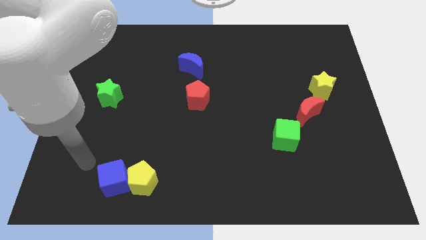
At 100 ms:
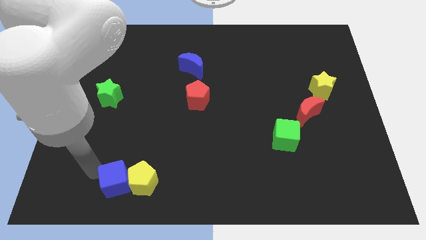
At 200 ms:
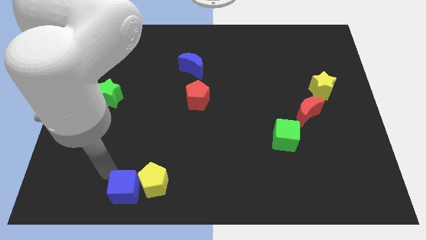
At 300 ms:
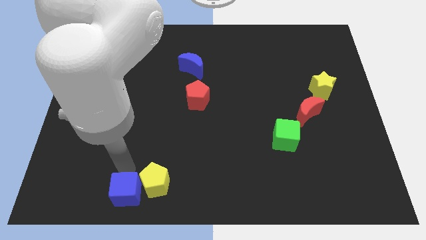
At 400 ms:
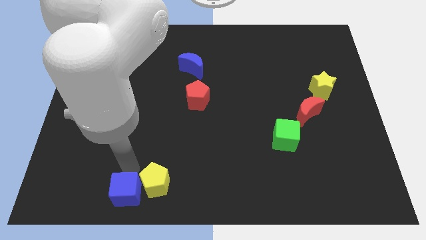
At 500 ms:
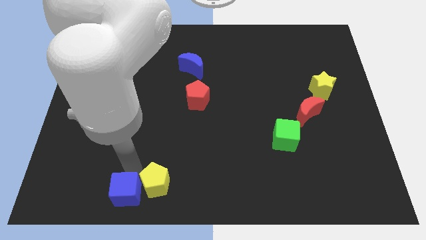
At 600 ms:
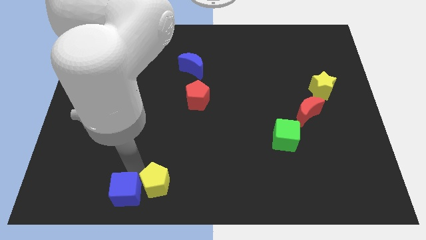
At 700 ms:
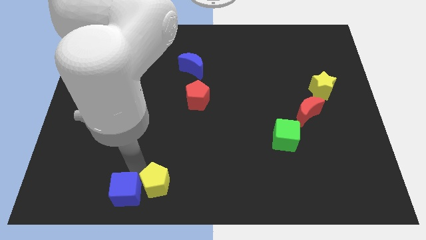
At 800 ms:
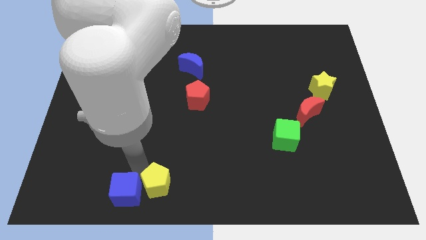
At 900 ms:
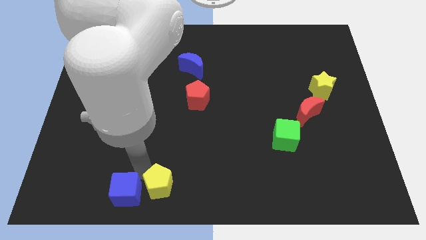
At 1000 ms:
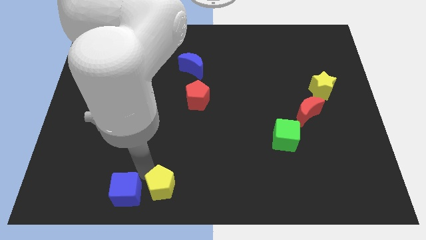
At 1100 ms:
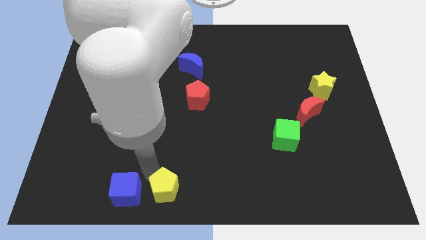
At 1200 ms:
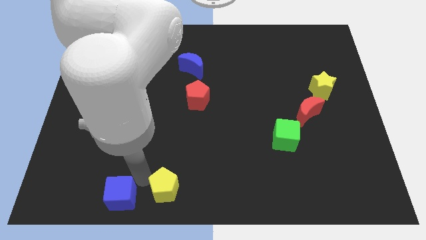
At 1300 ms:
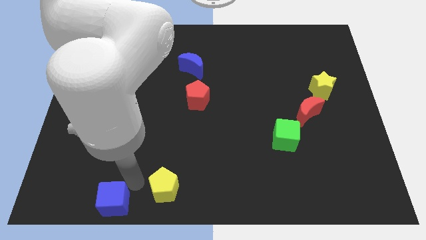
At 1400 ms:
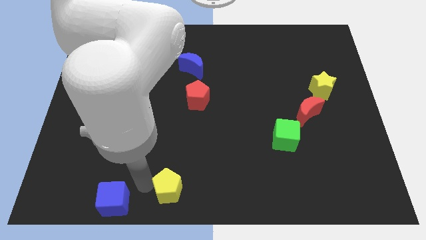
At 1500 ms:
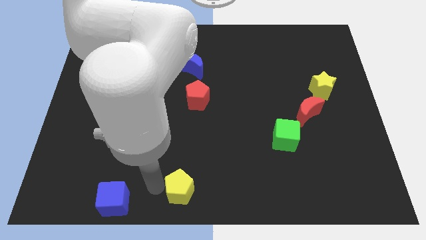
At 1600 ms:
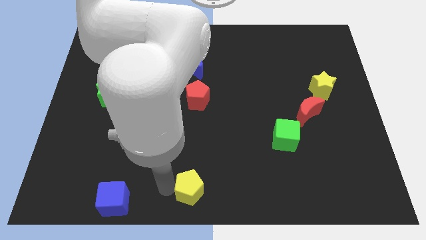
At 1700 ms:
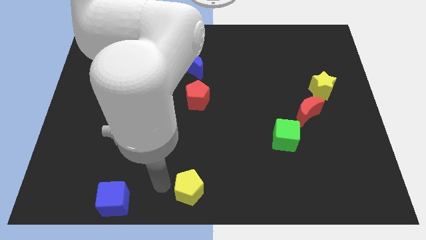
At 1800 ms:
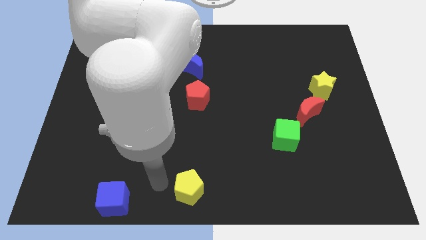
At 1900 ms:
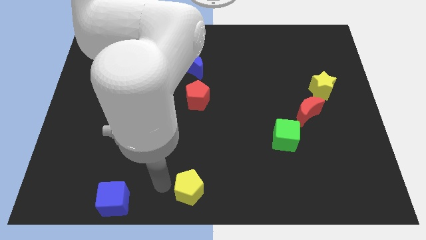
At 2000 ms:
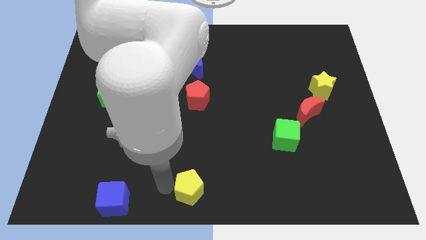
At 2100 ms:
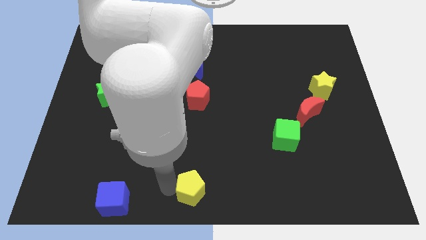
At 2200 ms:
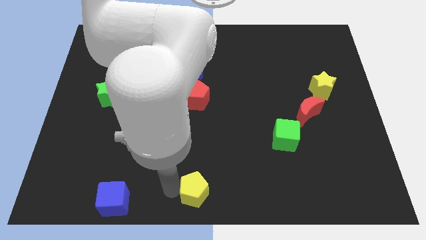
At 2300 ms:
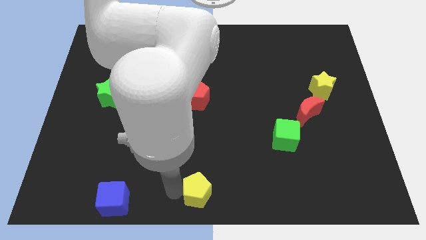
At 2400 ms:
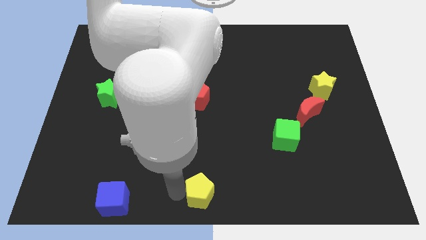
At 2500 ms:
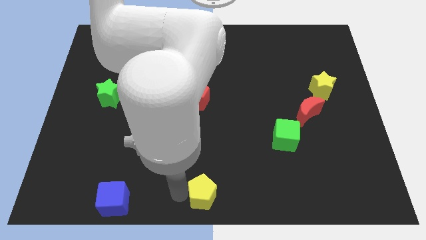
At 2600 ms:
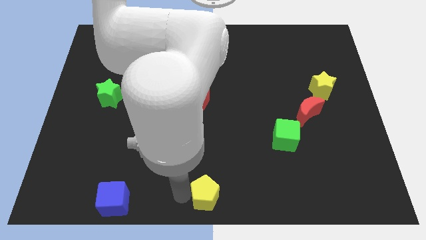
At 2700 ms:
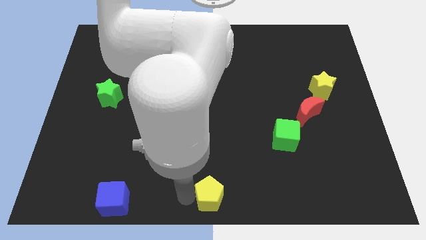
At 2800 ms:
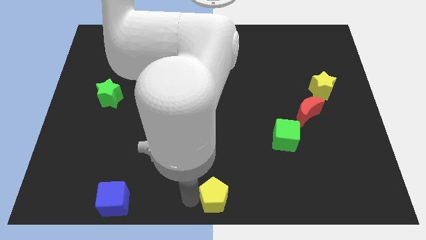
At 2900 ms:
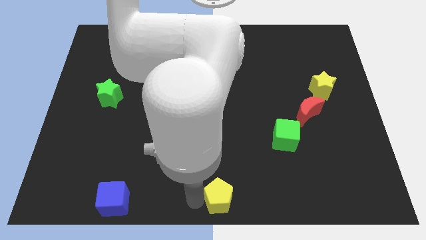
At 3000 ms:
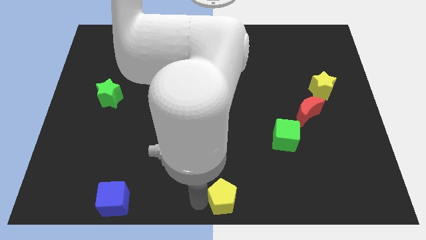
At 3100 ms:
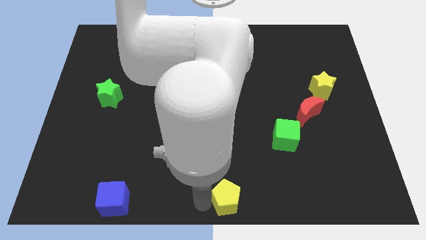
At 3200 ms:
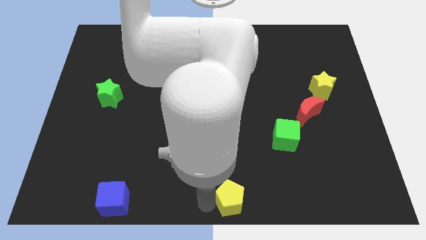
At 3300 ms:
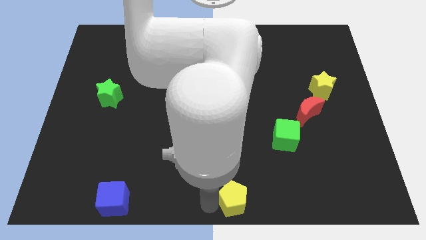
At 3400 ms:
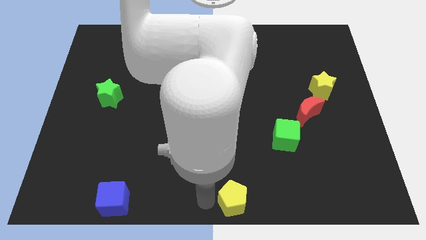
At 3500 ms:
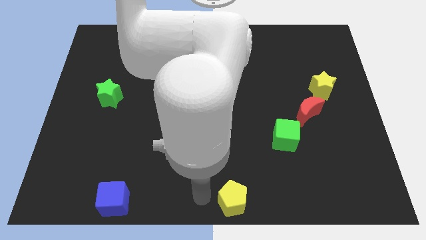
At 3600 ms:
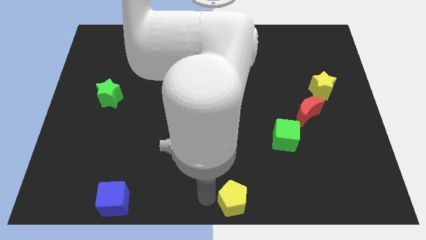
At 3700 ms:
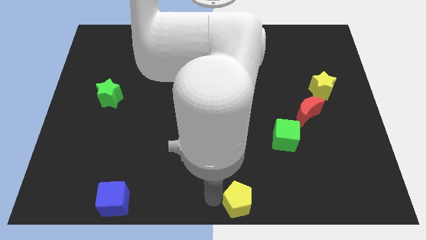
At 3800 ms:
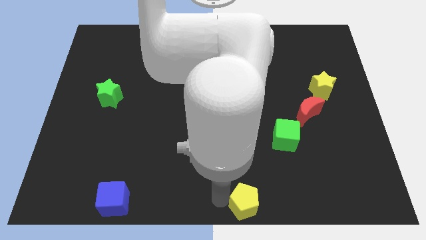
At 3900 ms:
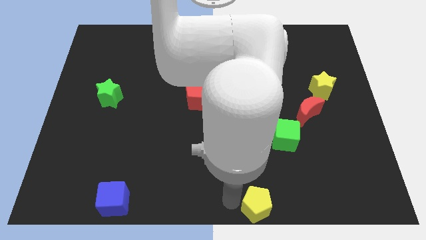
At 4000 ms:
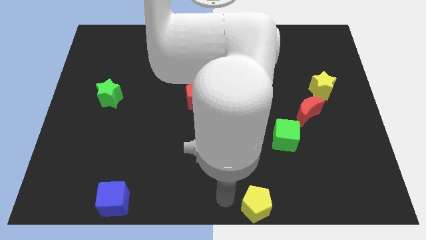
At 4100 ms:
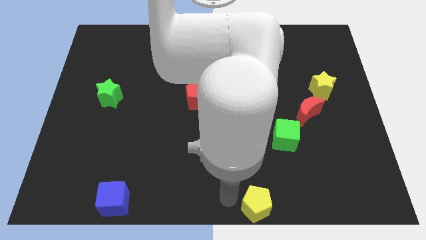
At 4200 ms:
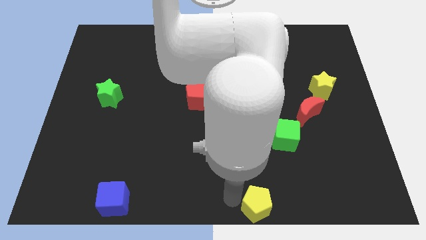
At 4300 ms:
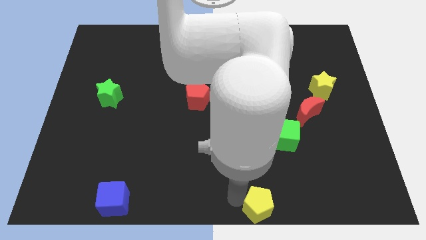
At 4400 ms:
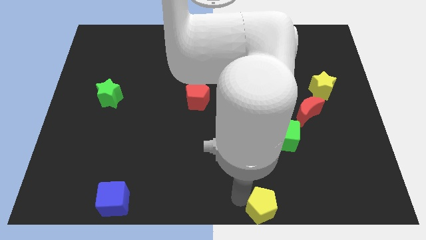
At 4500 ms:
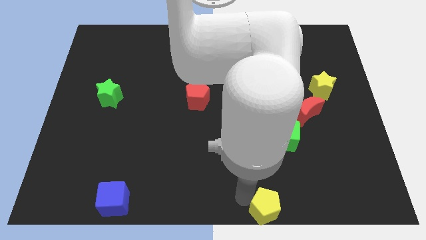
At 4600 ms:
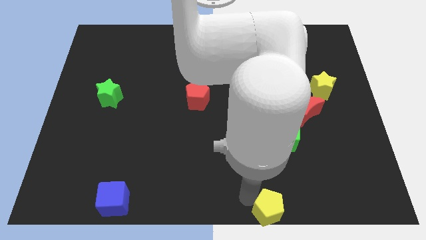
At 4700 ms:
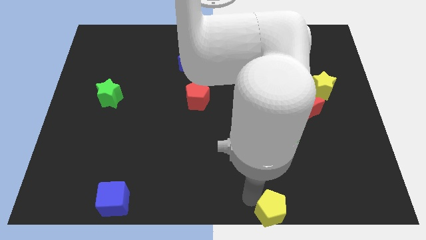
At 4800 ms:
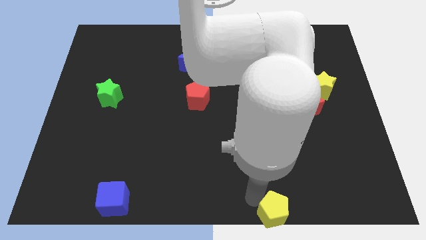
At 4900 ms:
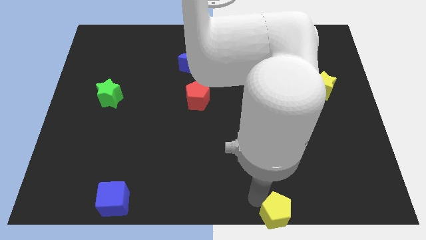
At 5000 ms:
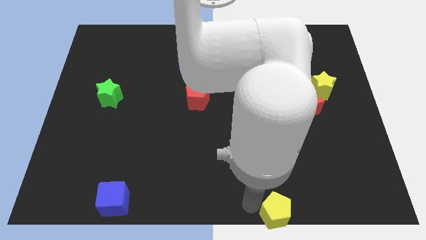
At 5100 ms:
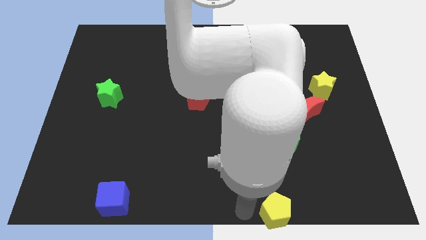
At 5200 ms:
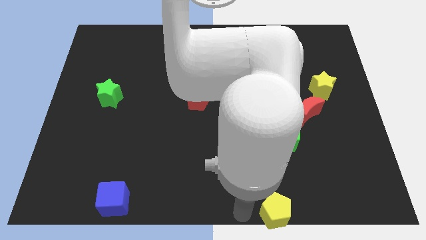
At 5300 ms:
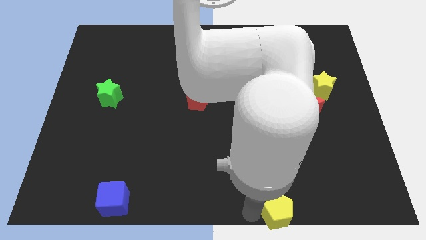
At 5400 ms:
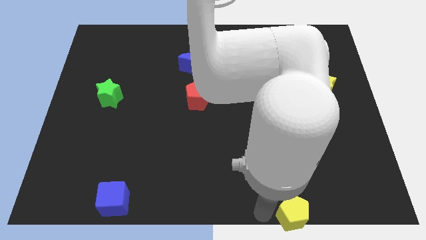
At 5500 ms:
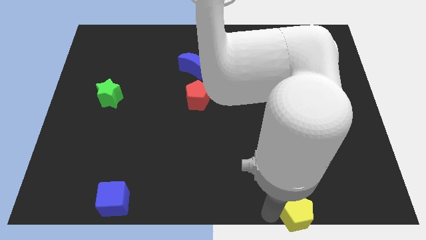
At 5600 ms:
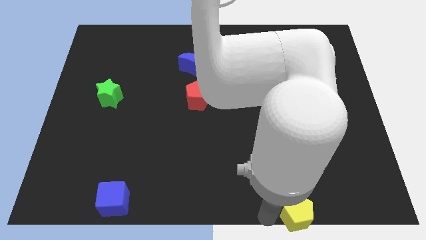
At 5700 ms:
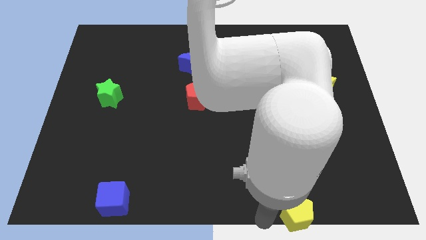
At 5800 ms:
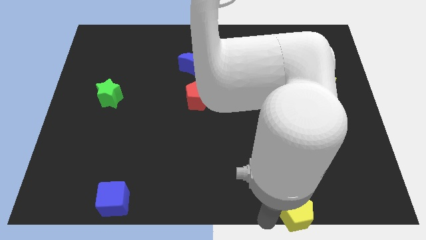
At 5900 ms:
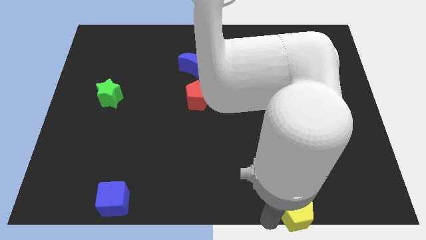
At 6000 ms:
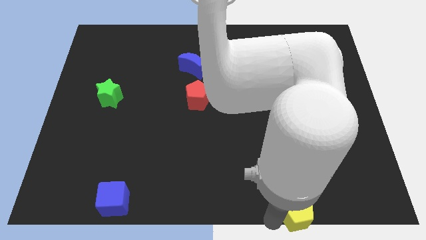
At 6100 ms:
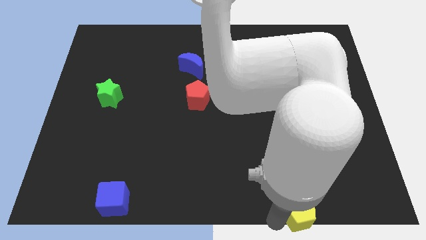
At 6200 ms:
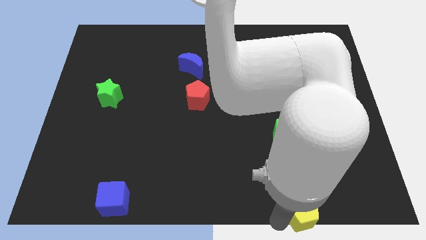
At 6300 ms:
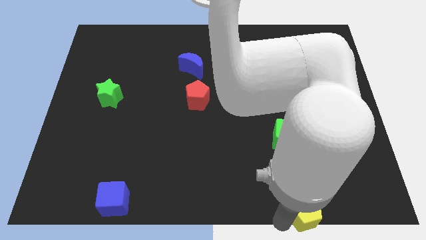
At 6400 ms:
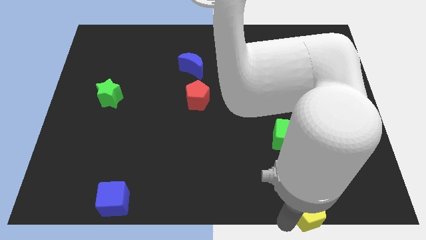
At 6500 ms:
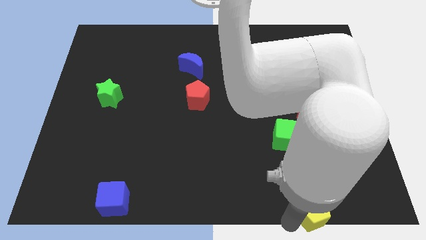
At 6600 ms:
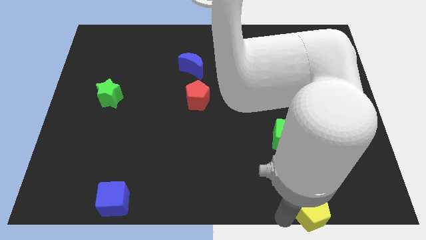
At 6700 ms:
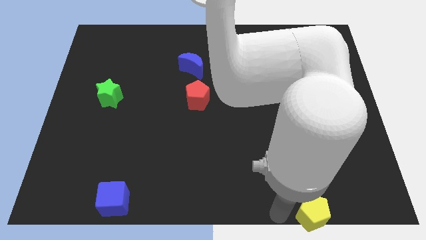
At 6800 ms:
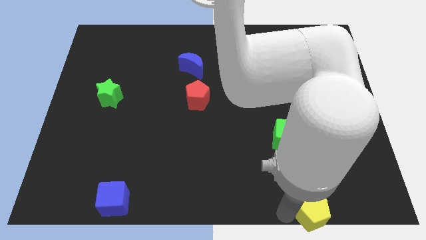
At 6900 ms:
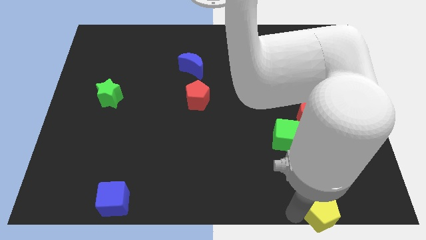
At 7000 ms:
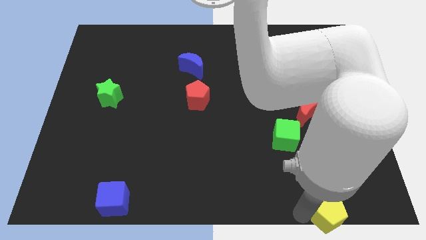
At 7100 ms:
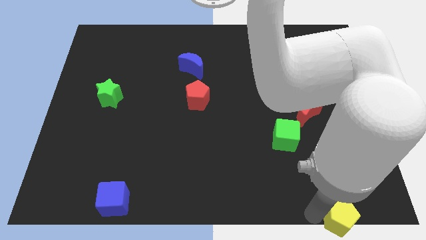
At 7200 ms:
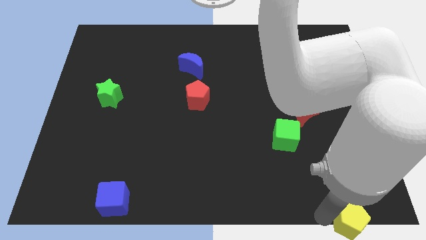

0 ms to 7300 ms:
put the yellow pentagon to the bottom right of the board

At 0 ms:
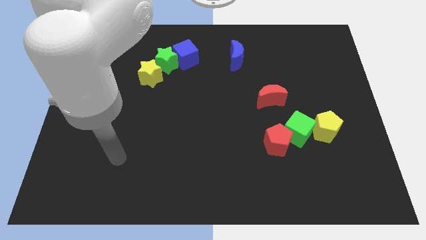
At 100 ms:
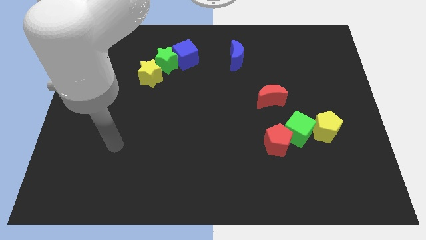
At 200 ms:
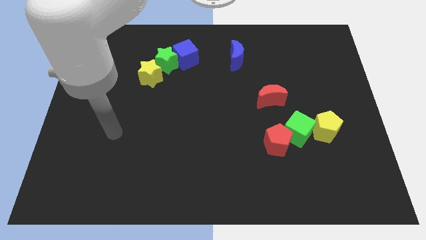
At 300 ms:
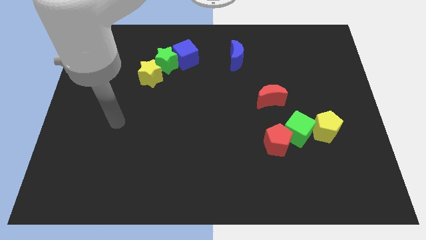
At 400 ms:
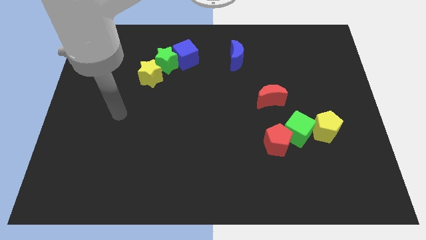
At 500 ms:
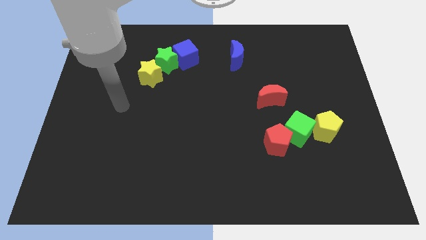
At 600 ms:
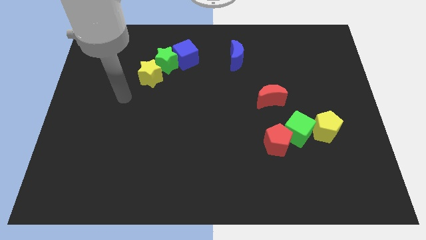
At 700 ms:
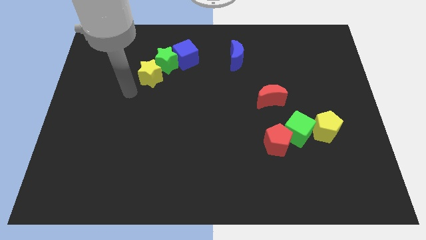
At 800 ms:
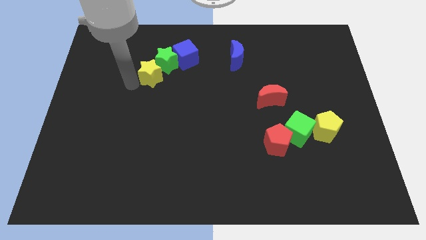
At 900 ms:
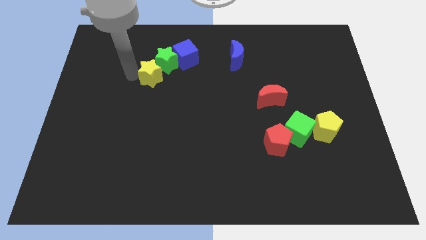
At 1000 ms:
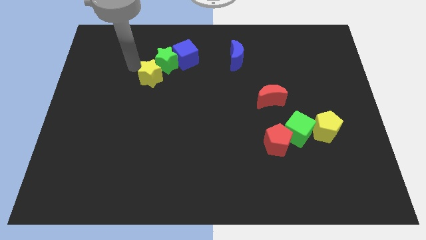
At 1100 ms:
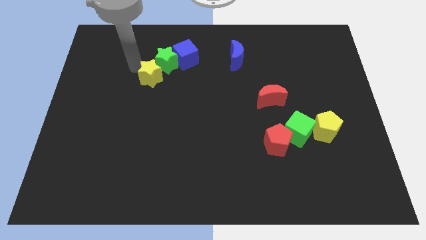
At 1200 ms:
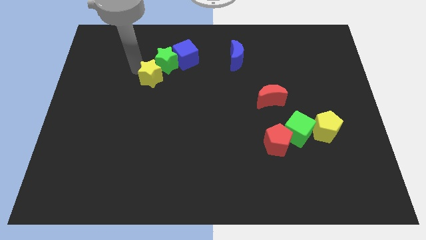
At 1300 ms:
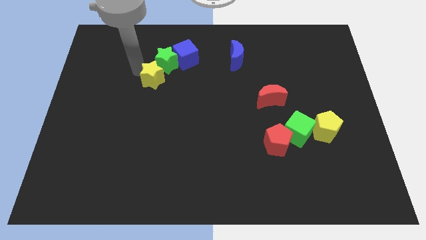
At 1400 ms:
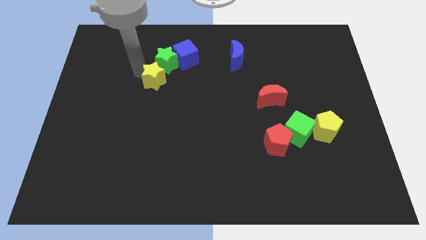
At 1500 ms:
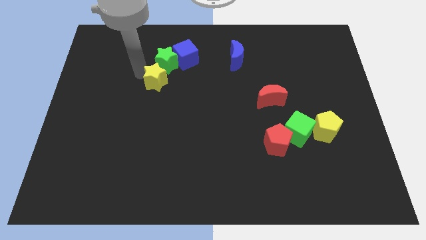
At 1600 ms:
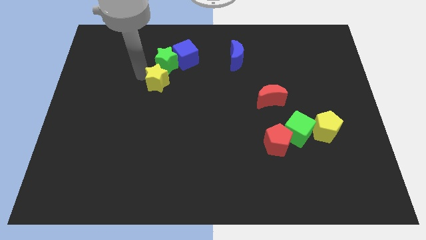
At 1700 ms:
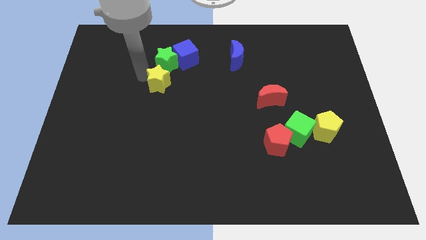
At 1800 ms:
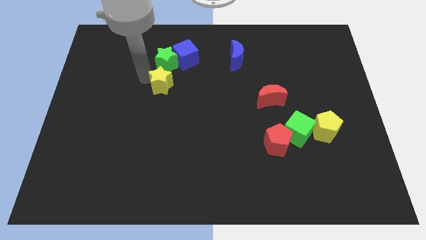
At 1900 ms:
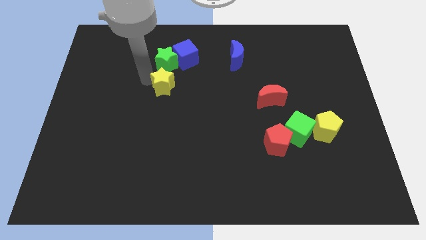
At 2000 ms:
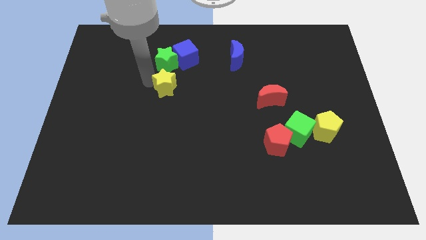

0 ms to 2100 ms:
move the yellow star to the center
